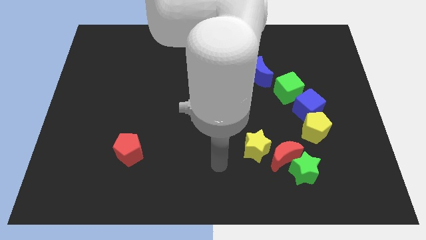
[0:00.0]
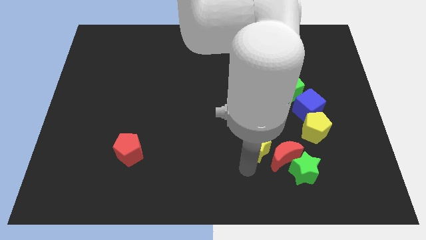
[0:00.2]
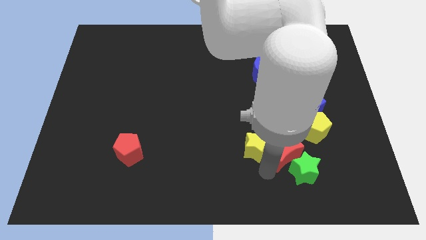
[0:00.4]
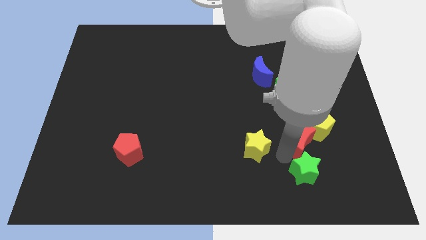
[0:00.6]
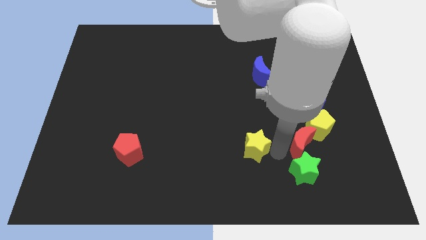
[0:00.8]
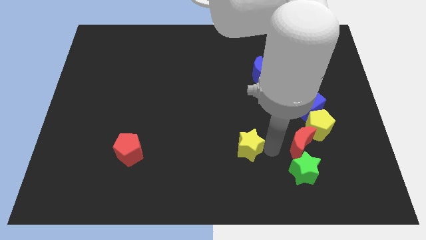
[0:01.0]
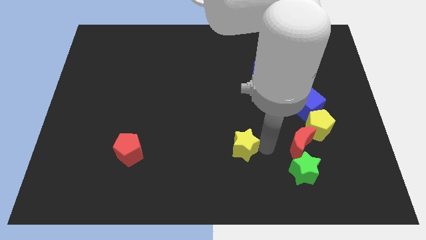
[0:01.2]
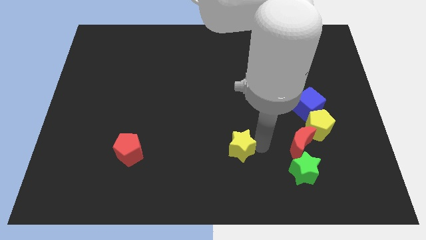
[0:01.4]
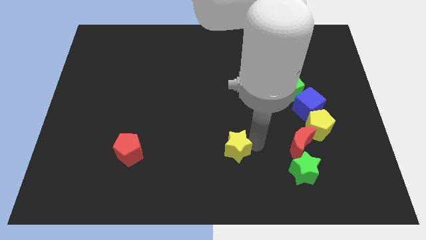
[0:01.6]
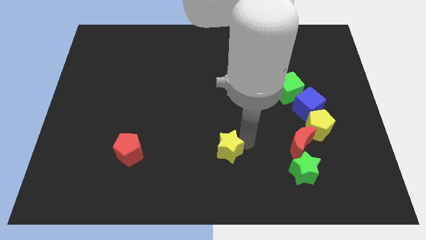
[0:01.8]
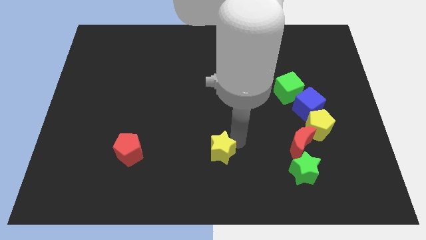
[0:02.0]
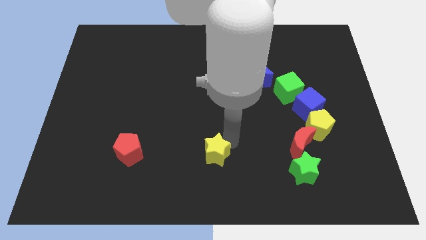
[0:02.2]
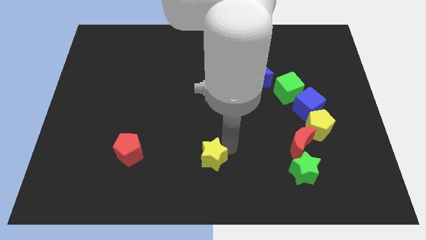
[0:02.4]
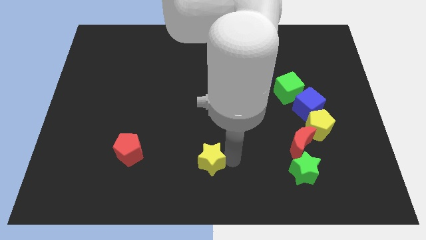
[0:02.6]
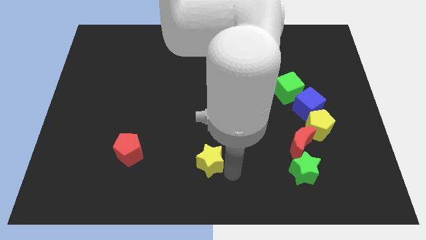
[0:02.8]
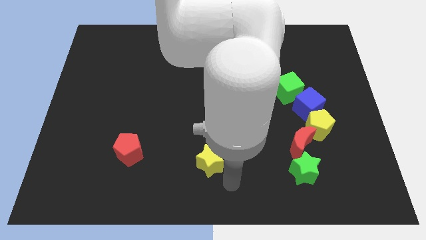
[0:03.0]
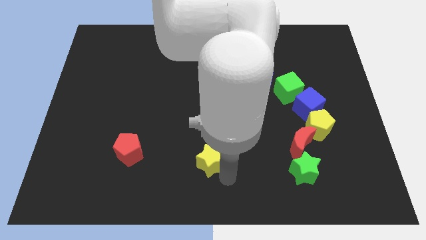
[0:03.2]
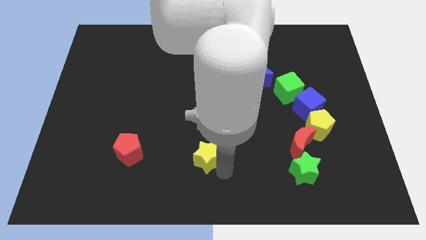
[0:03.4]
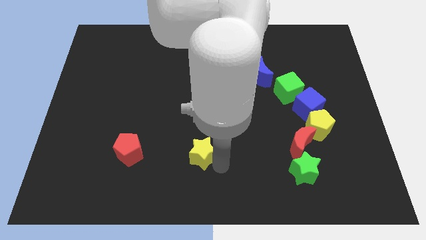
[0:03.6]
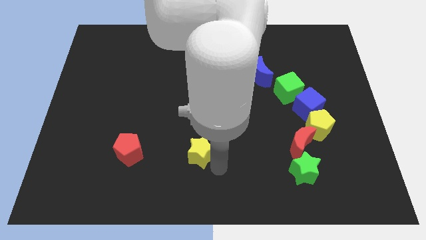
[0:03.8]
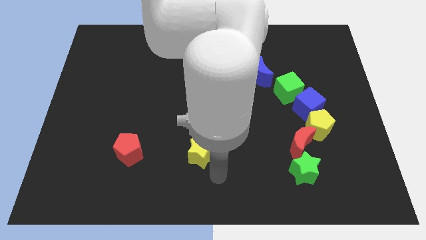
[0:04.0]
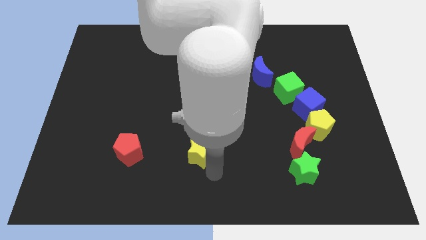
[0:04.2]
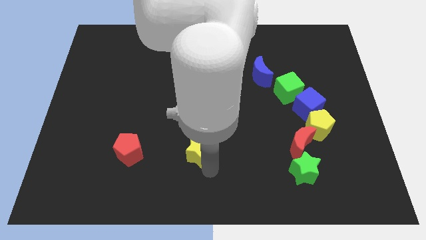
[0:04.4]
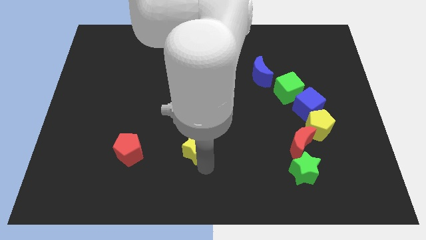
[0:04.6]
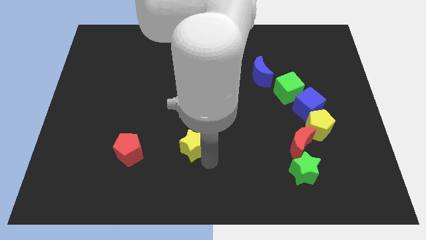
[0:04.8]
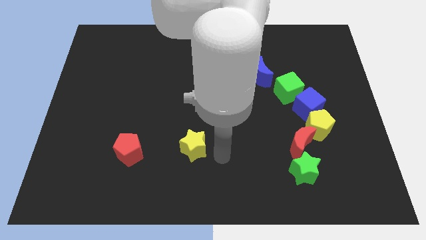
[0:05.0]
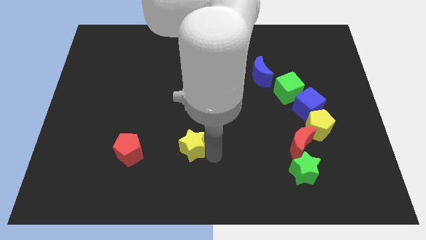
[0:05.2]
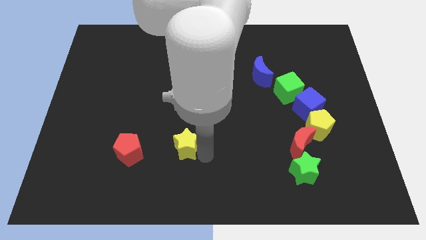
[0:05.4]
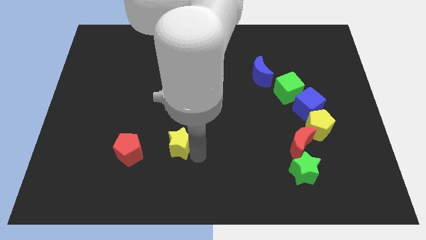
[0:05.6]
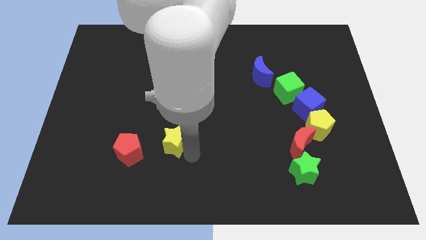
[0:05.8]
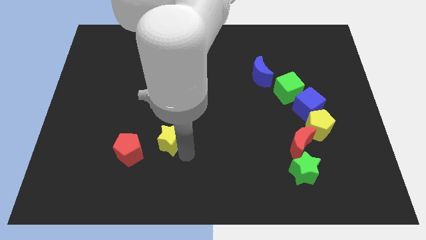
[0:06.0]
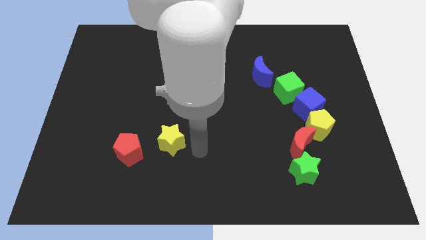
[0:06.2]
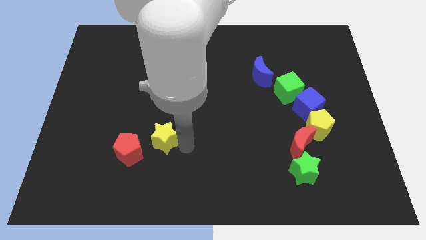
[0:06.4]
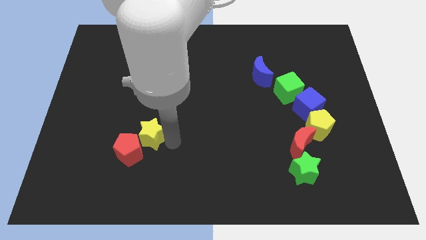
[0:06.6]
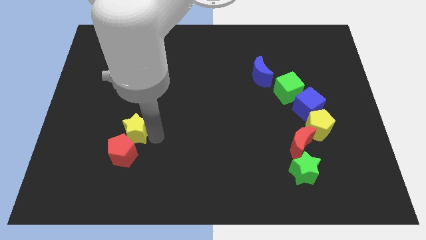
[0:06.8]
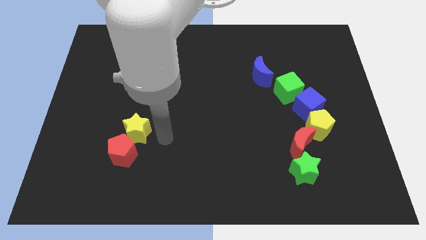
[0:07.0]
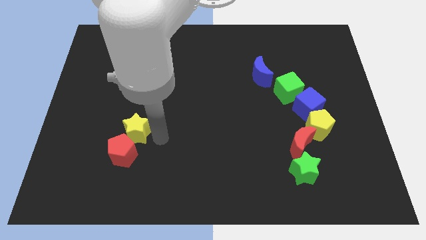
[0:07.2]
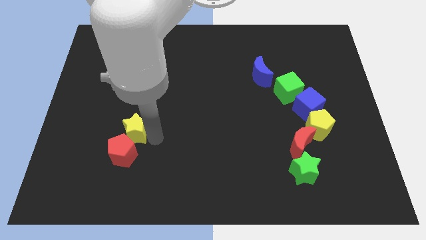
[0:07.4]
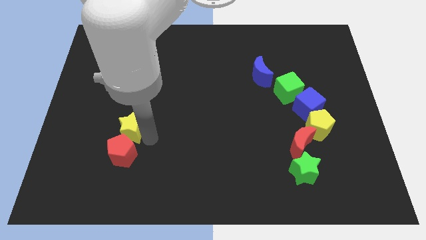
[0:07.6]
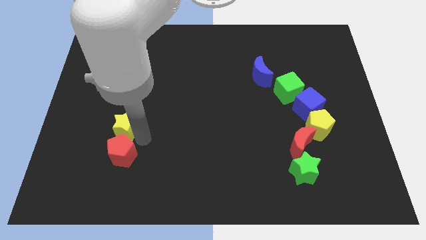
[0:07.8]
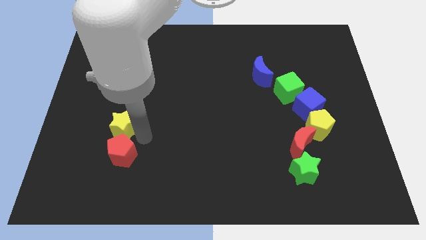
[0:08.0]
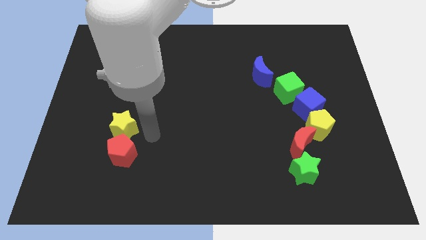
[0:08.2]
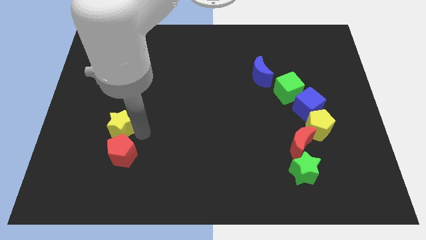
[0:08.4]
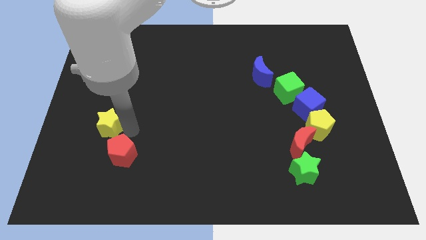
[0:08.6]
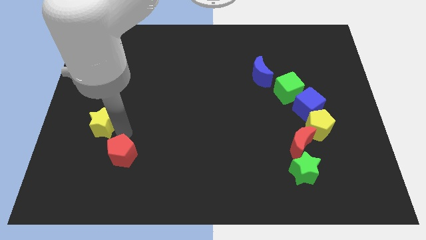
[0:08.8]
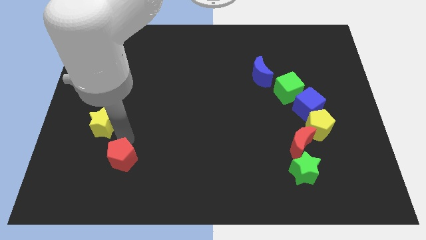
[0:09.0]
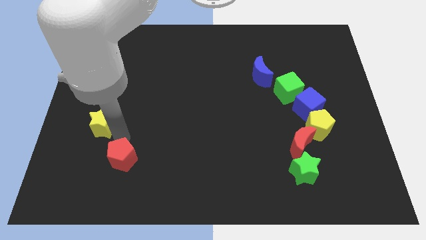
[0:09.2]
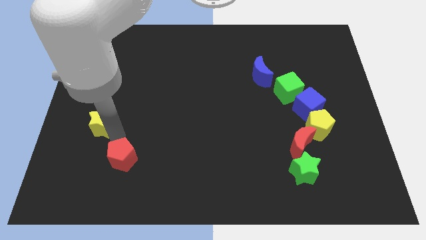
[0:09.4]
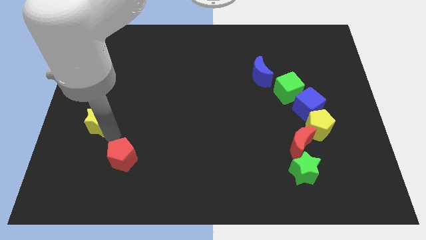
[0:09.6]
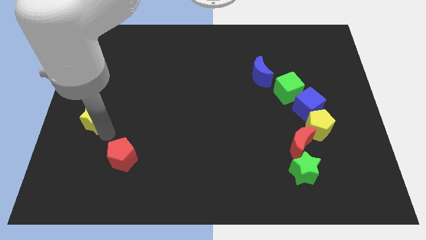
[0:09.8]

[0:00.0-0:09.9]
move the yellow star to the center left
